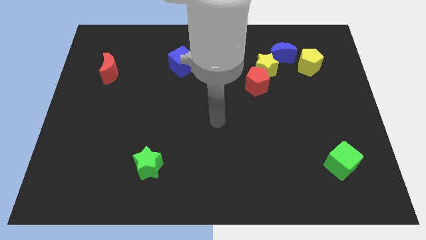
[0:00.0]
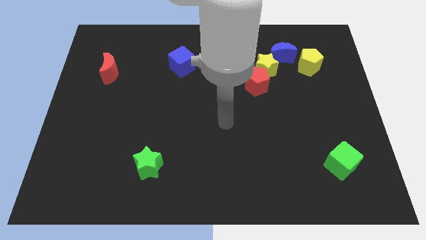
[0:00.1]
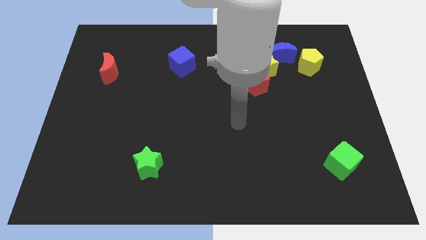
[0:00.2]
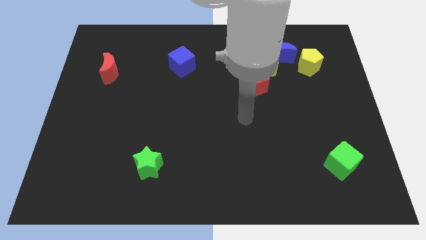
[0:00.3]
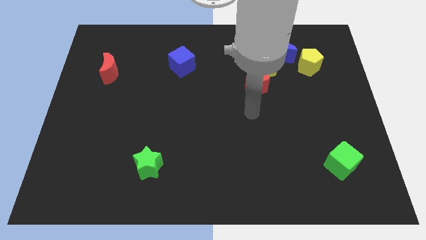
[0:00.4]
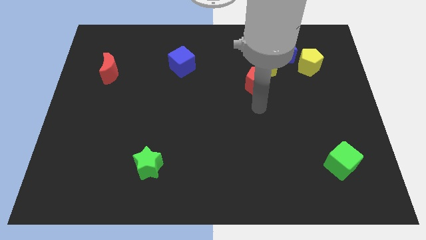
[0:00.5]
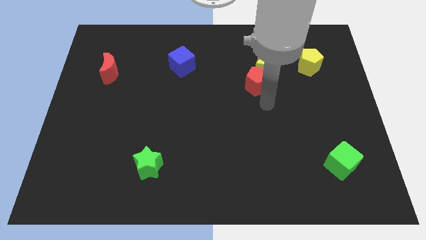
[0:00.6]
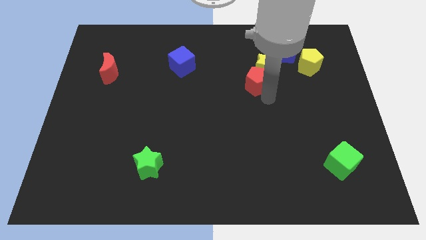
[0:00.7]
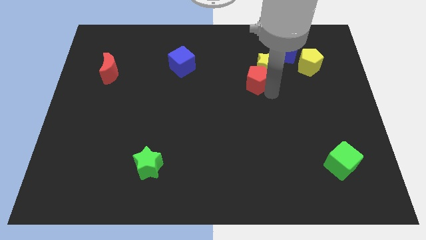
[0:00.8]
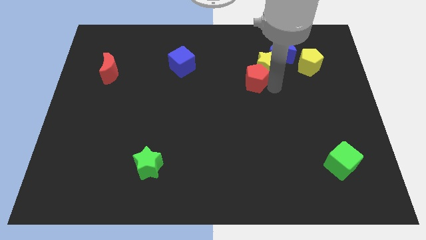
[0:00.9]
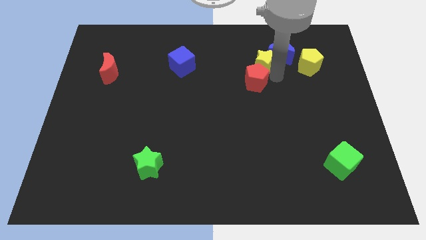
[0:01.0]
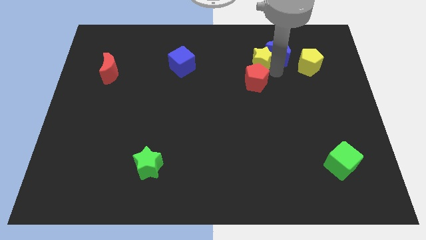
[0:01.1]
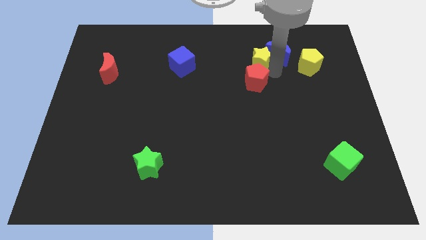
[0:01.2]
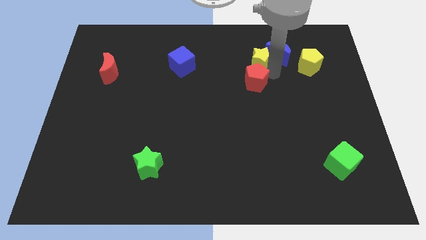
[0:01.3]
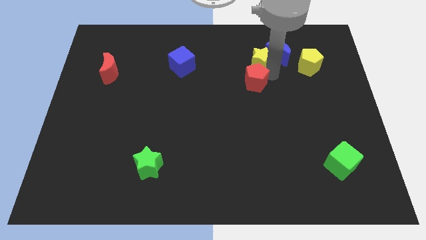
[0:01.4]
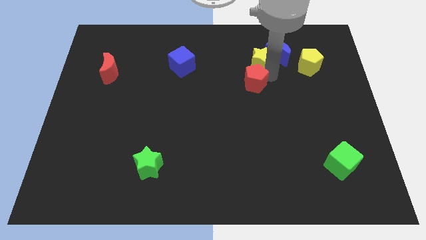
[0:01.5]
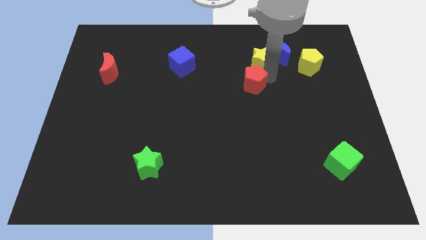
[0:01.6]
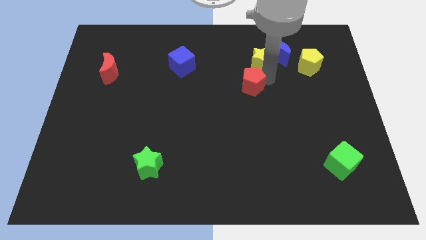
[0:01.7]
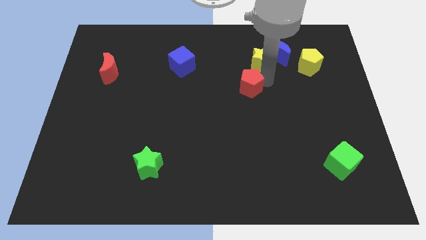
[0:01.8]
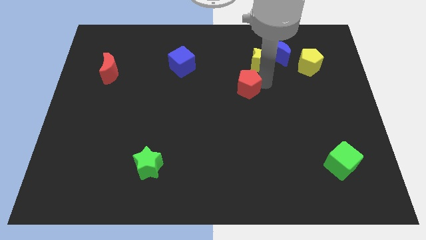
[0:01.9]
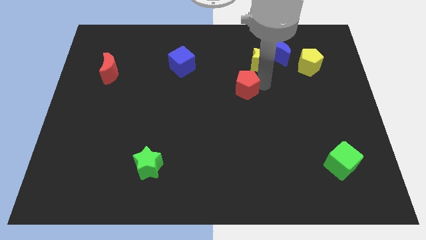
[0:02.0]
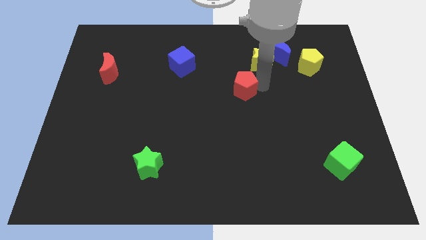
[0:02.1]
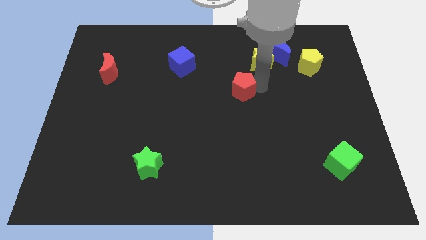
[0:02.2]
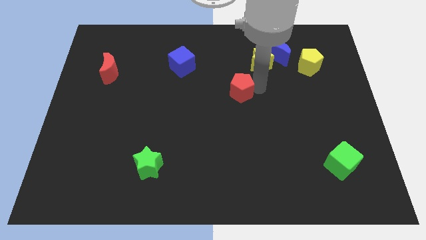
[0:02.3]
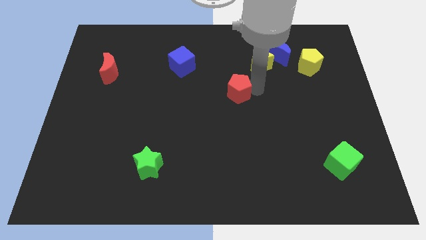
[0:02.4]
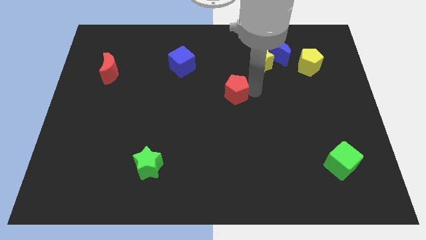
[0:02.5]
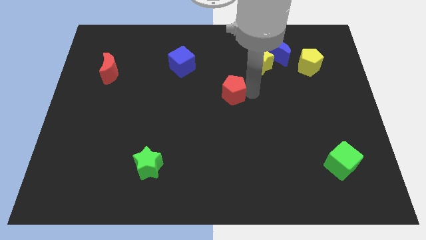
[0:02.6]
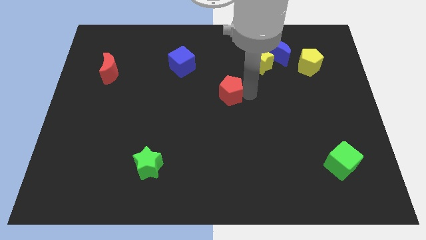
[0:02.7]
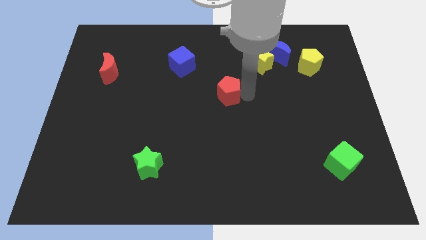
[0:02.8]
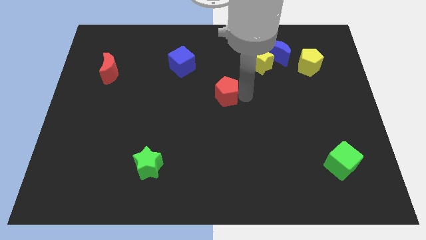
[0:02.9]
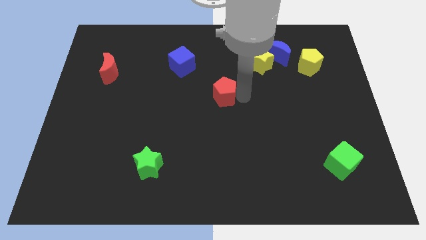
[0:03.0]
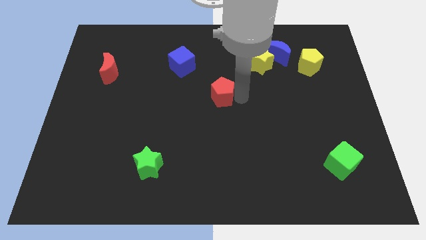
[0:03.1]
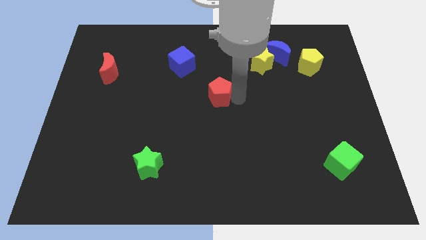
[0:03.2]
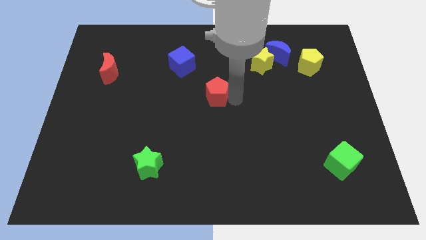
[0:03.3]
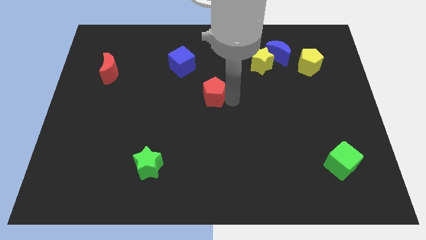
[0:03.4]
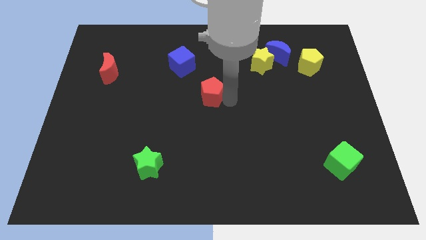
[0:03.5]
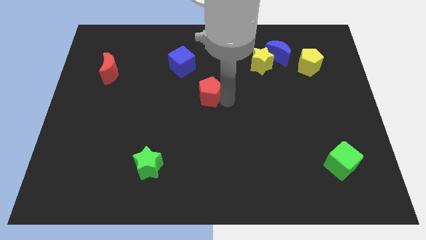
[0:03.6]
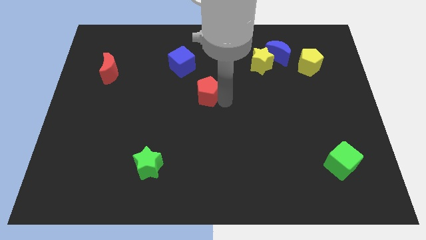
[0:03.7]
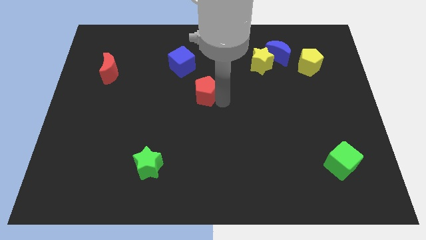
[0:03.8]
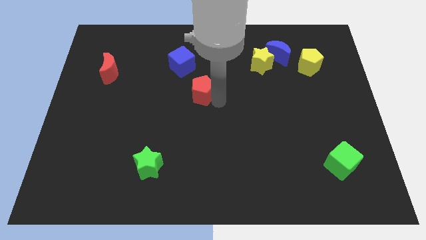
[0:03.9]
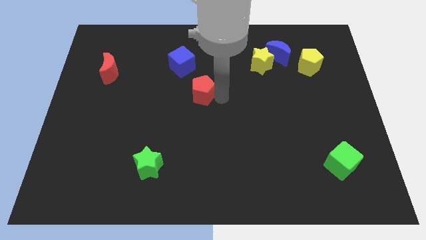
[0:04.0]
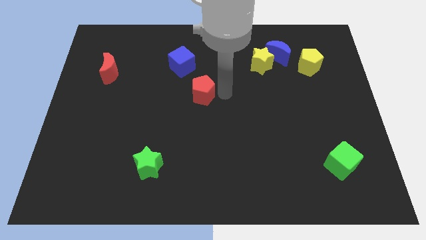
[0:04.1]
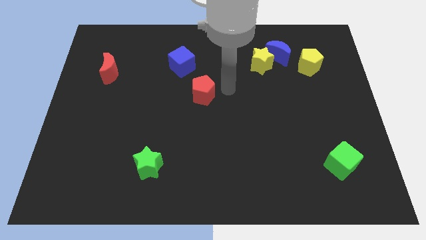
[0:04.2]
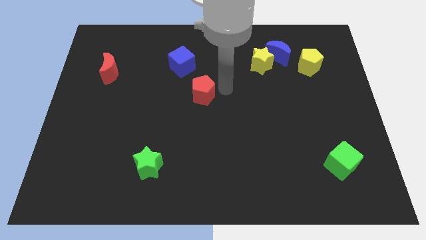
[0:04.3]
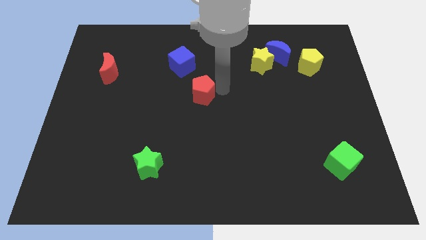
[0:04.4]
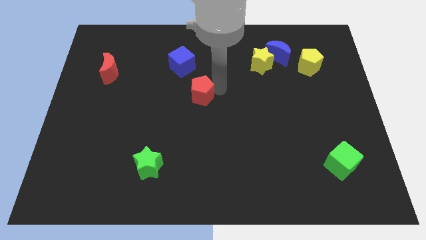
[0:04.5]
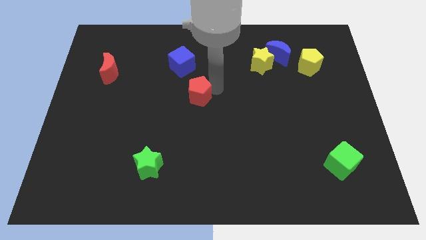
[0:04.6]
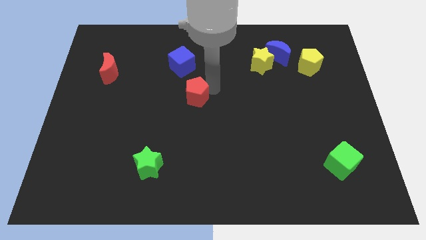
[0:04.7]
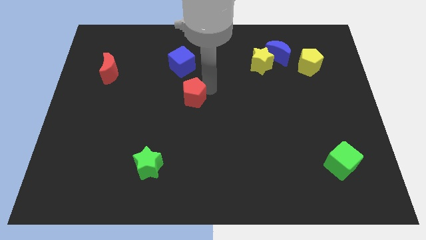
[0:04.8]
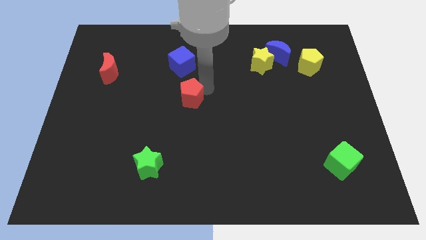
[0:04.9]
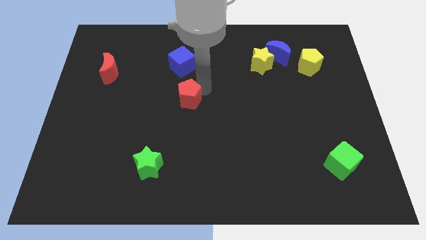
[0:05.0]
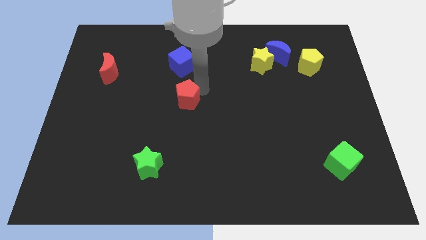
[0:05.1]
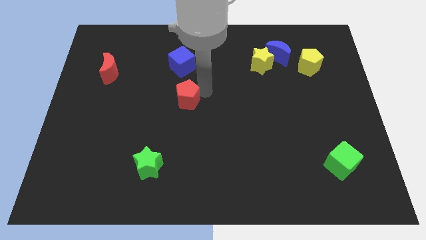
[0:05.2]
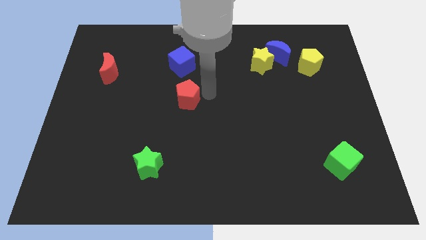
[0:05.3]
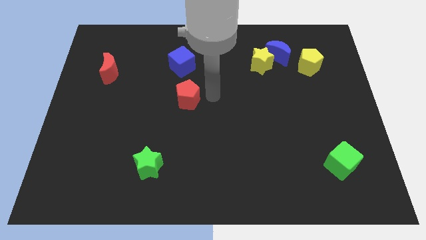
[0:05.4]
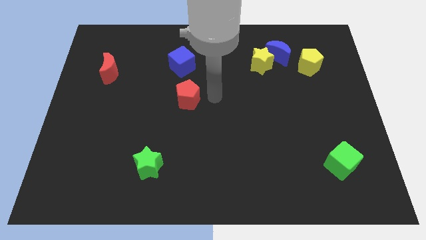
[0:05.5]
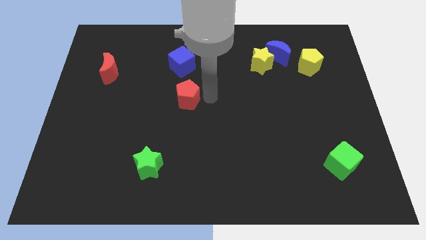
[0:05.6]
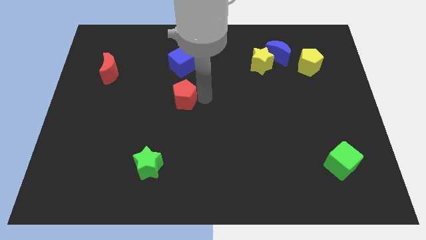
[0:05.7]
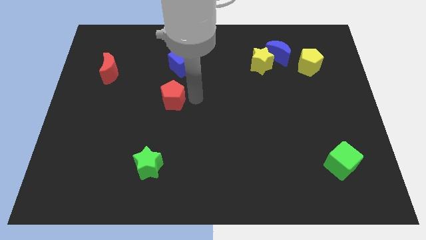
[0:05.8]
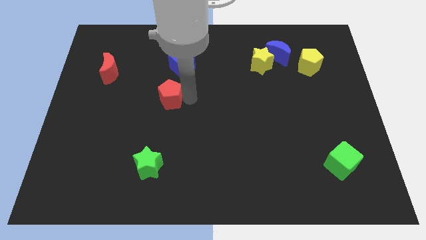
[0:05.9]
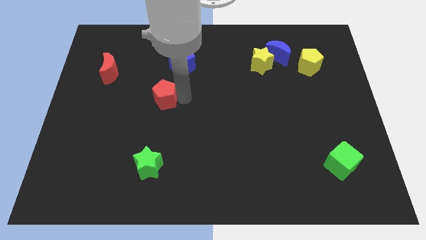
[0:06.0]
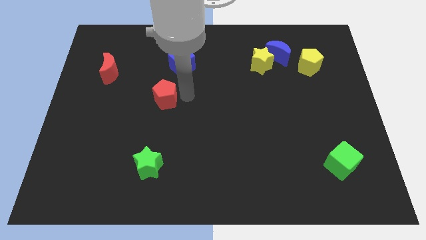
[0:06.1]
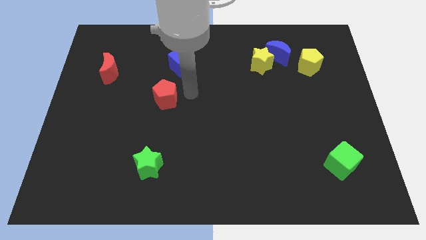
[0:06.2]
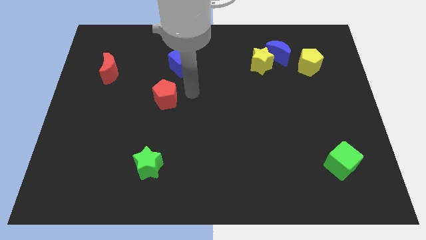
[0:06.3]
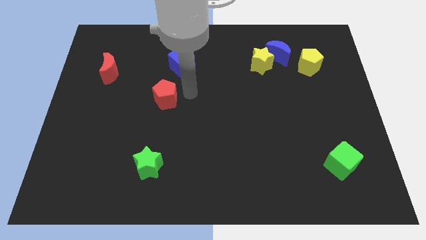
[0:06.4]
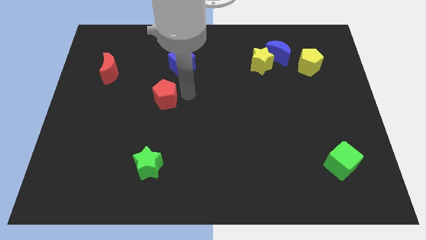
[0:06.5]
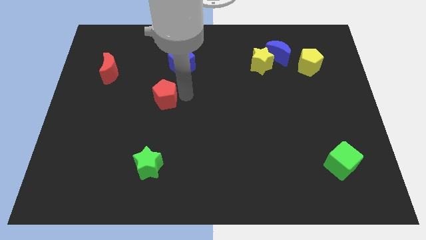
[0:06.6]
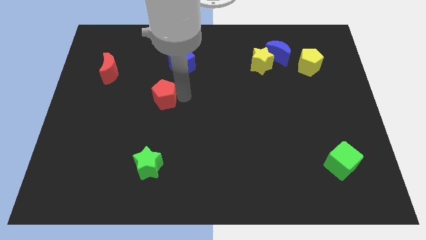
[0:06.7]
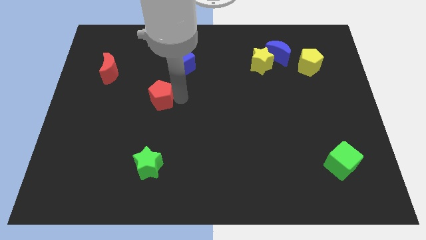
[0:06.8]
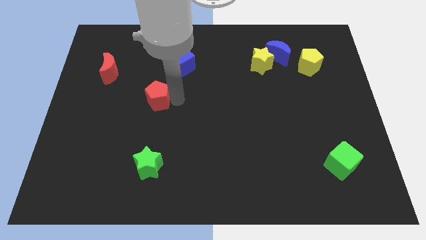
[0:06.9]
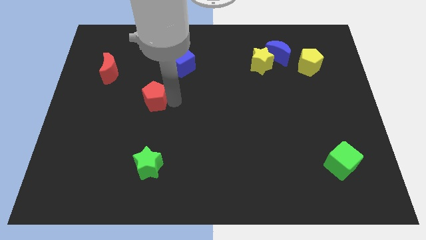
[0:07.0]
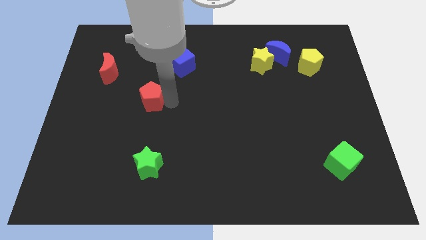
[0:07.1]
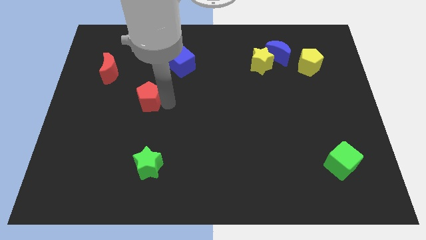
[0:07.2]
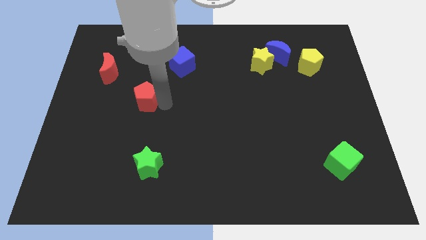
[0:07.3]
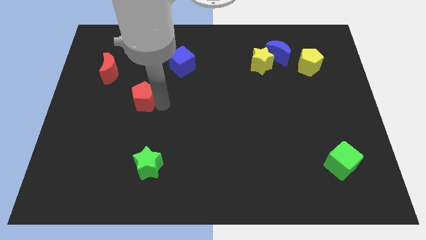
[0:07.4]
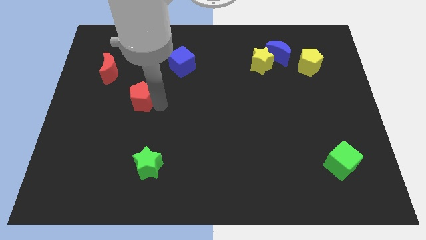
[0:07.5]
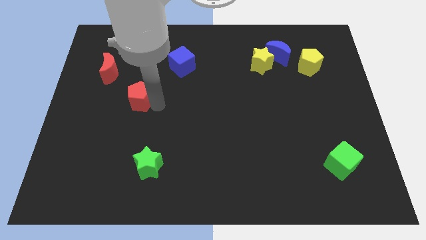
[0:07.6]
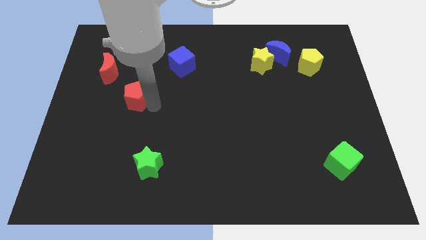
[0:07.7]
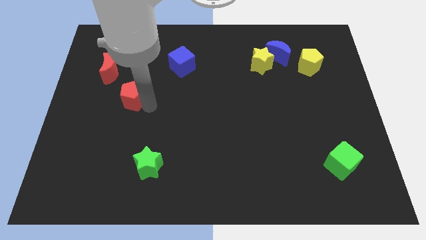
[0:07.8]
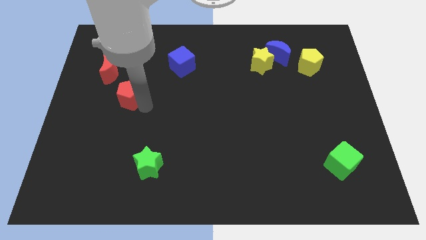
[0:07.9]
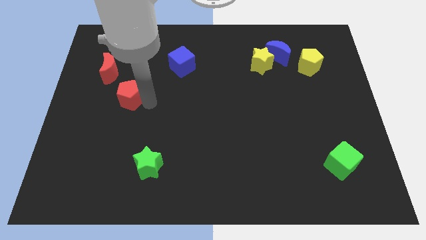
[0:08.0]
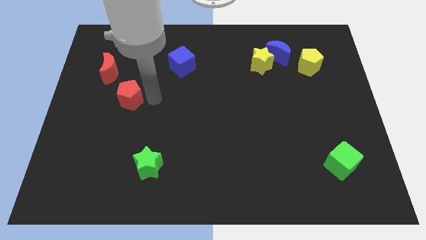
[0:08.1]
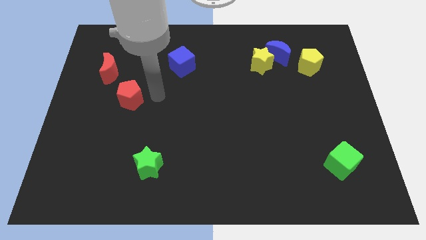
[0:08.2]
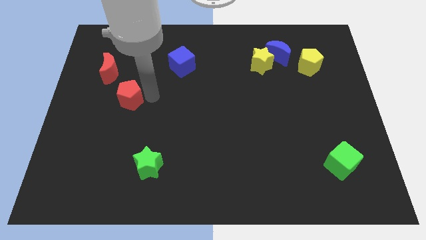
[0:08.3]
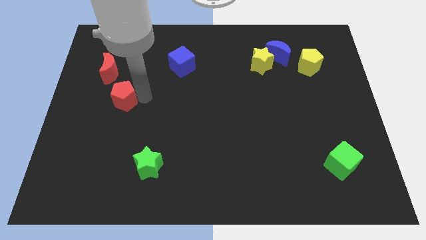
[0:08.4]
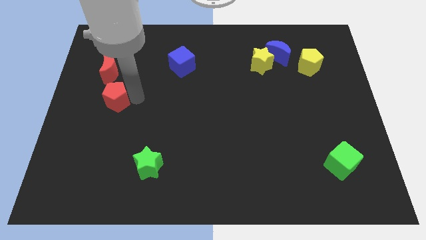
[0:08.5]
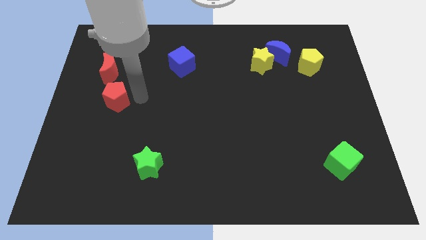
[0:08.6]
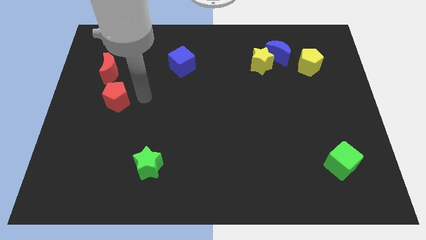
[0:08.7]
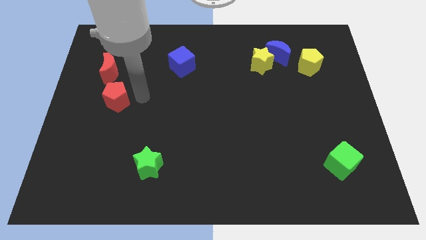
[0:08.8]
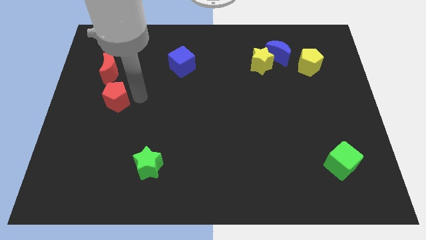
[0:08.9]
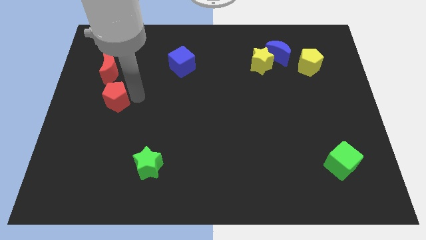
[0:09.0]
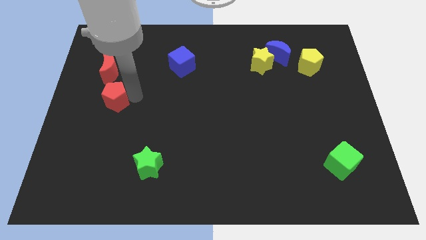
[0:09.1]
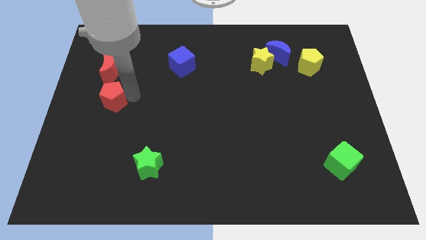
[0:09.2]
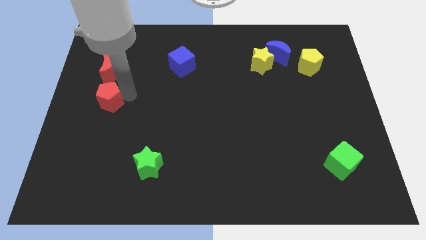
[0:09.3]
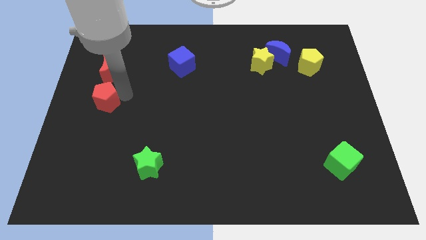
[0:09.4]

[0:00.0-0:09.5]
move the red pentagon to the left side
